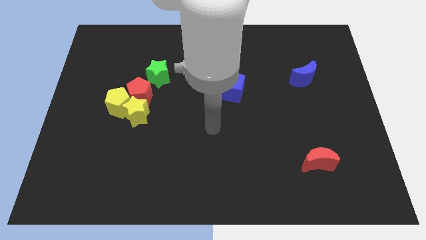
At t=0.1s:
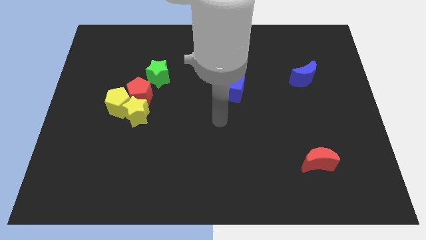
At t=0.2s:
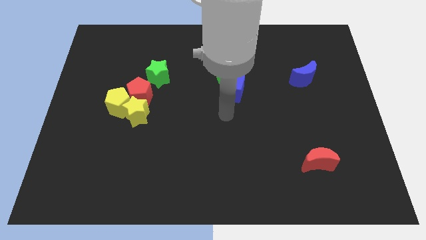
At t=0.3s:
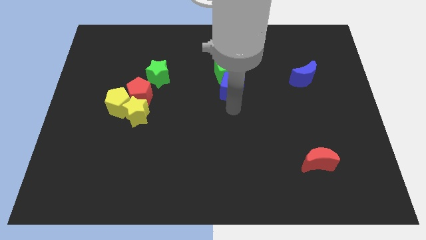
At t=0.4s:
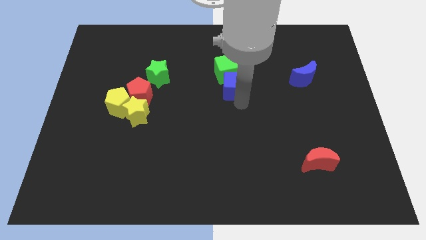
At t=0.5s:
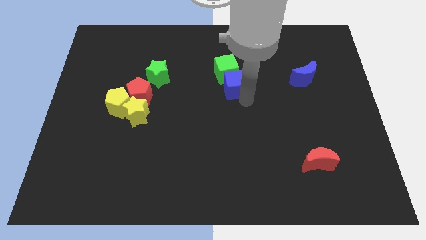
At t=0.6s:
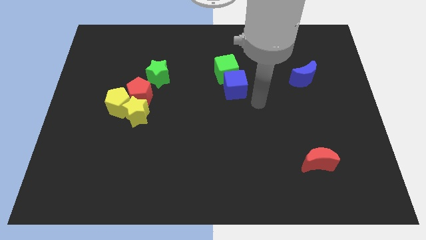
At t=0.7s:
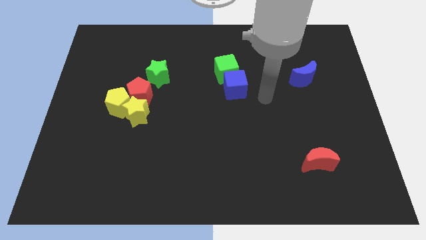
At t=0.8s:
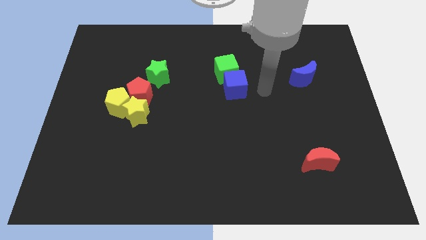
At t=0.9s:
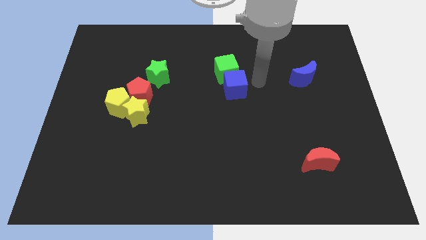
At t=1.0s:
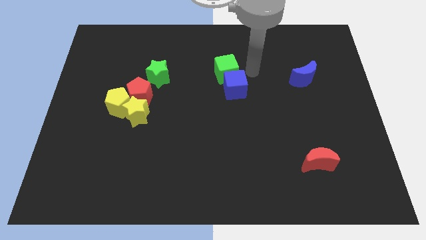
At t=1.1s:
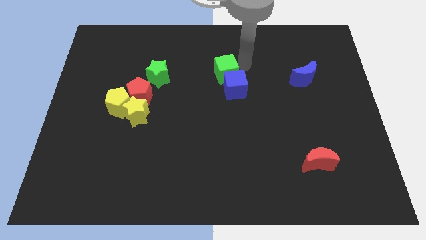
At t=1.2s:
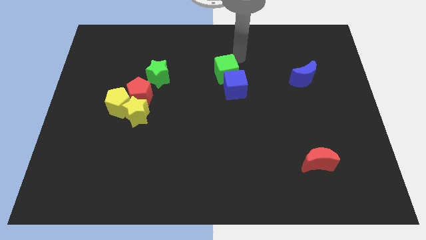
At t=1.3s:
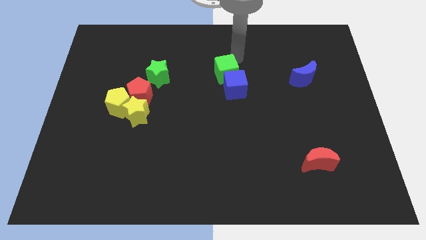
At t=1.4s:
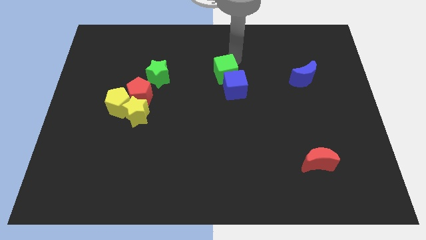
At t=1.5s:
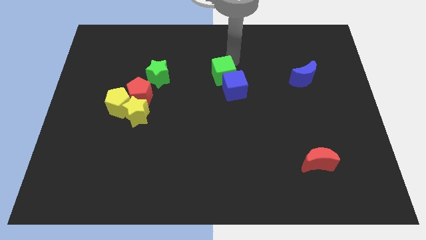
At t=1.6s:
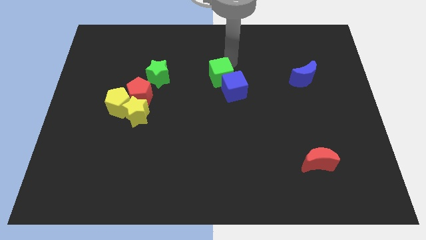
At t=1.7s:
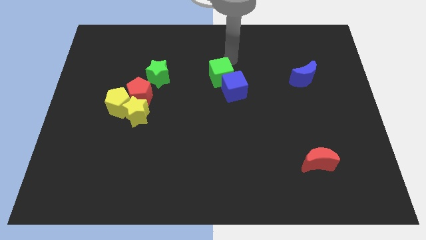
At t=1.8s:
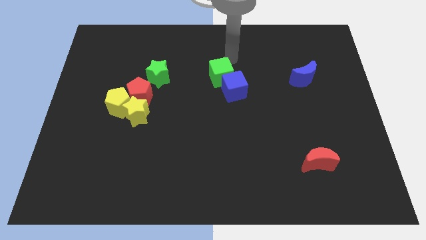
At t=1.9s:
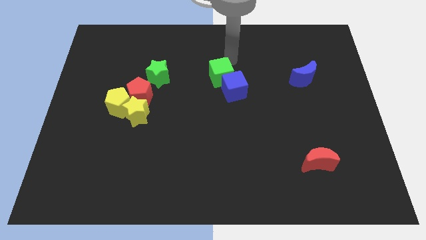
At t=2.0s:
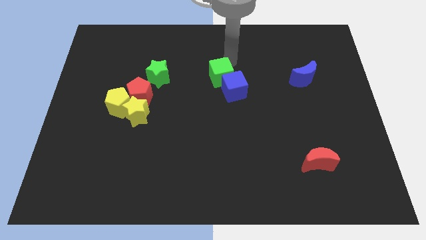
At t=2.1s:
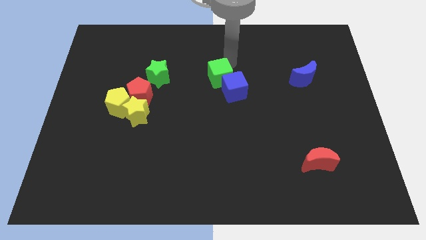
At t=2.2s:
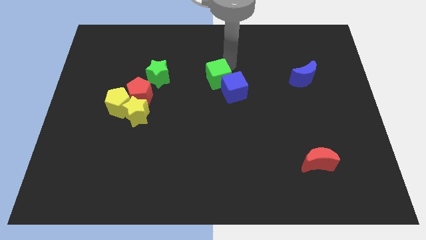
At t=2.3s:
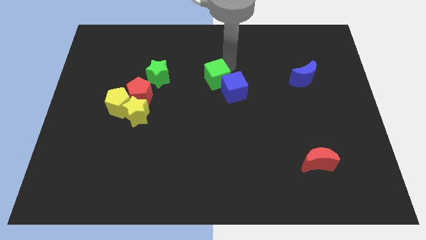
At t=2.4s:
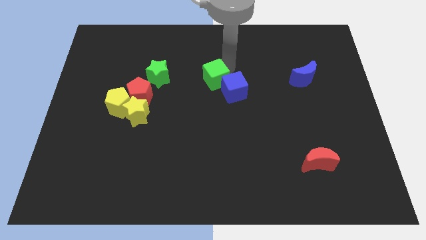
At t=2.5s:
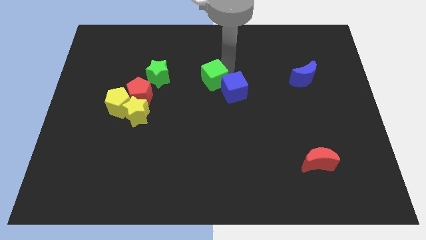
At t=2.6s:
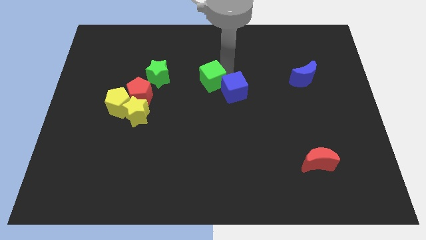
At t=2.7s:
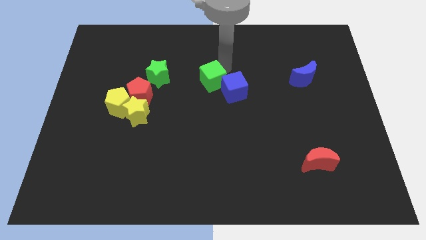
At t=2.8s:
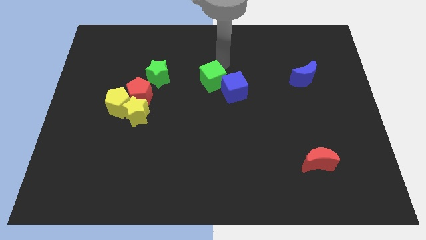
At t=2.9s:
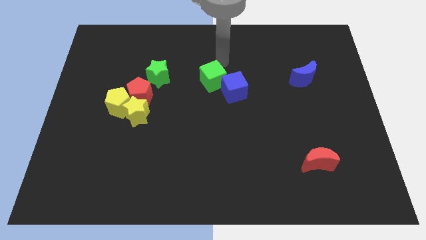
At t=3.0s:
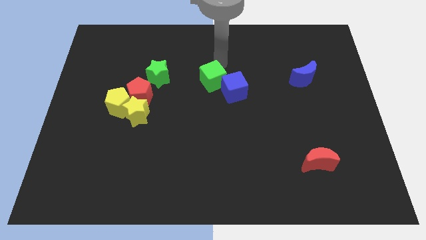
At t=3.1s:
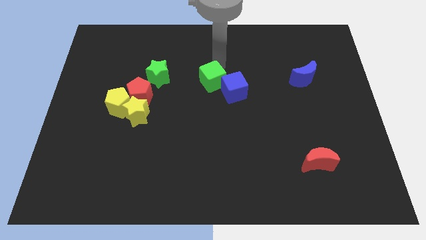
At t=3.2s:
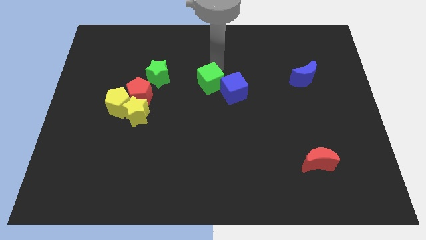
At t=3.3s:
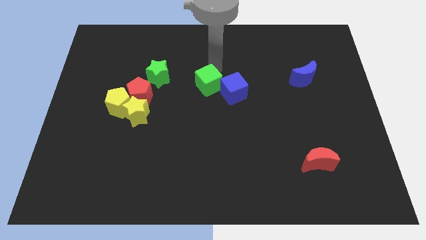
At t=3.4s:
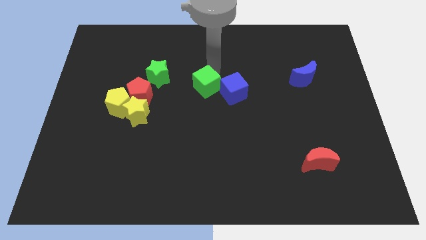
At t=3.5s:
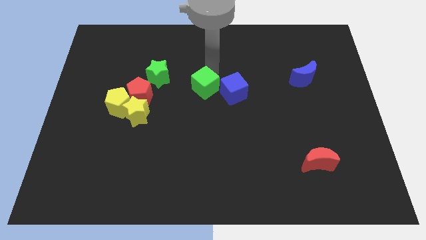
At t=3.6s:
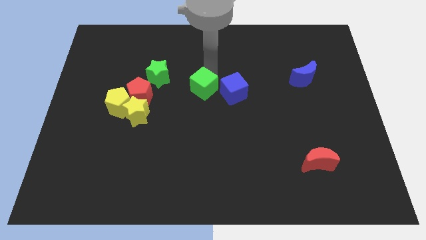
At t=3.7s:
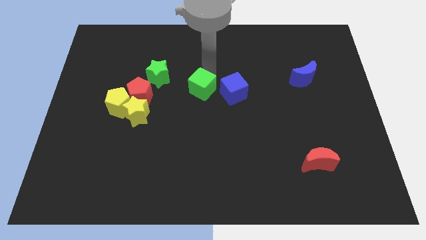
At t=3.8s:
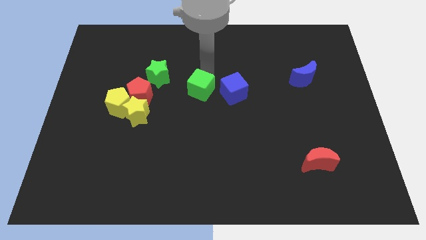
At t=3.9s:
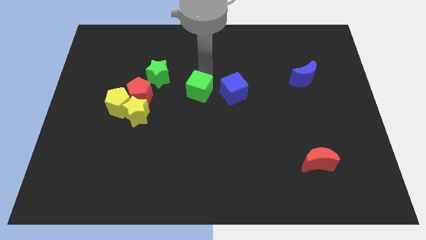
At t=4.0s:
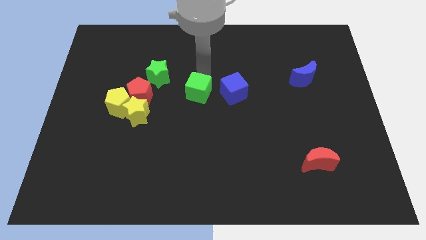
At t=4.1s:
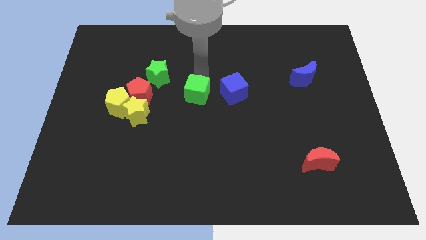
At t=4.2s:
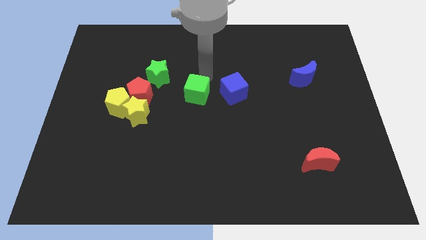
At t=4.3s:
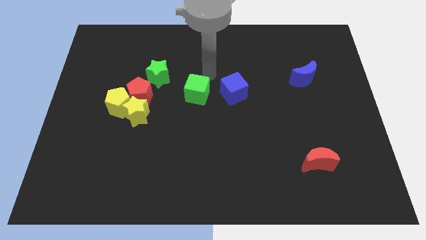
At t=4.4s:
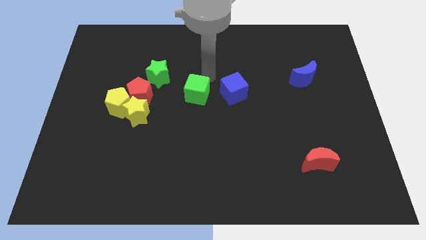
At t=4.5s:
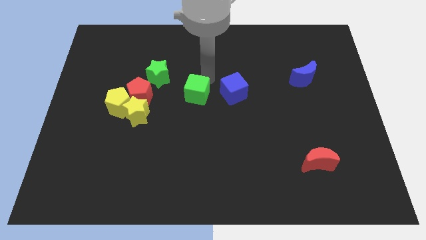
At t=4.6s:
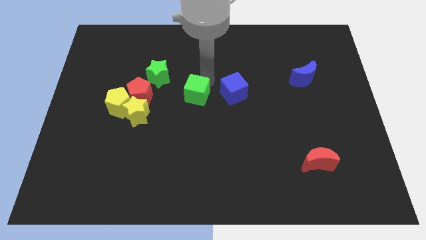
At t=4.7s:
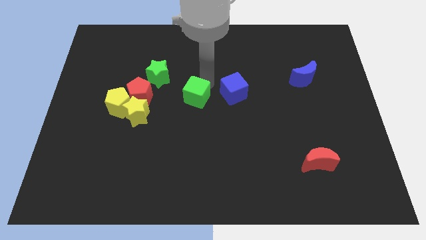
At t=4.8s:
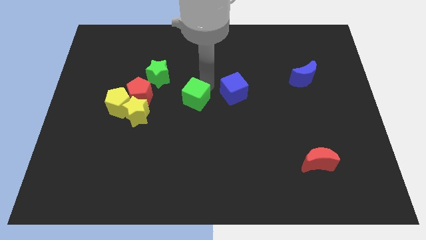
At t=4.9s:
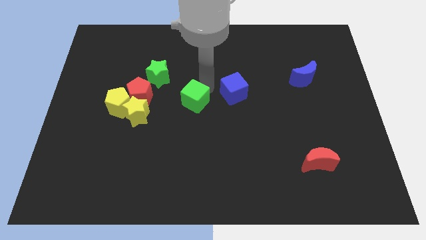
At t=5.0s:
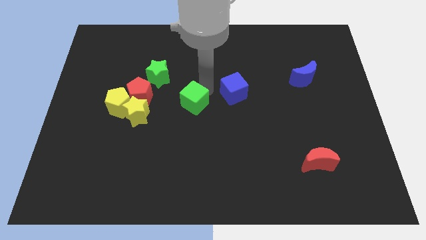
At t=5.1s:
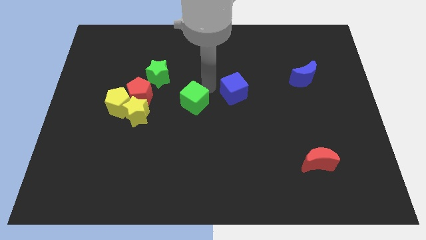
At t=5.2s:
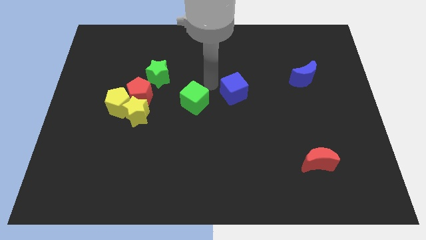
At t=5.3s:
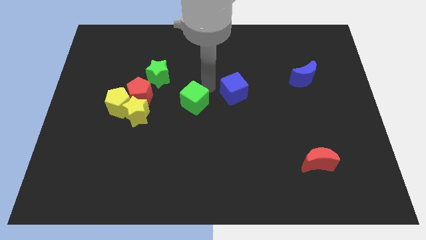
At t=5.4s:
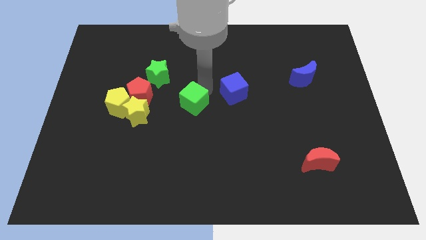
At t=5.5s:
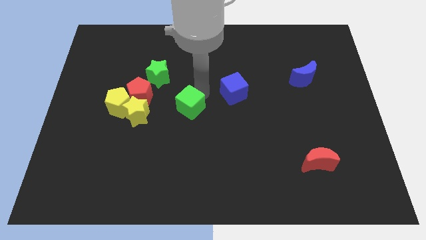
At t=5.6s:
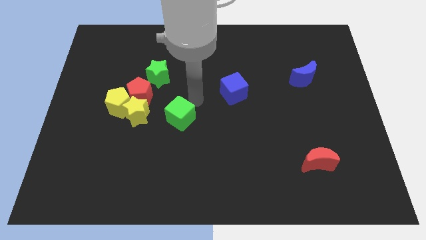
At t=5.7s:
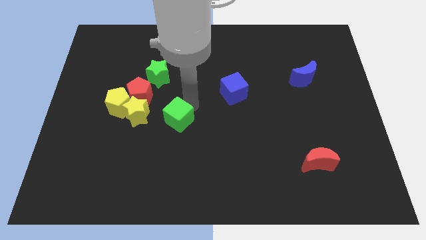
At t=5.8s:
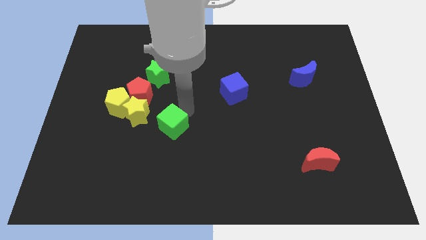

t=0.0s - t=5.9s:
slide the green cube to the bottom right side of the yellow star

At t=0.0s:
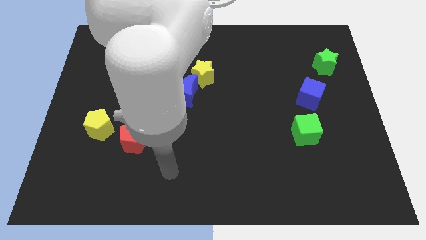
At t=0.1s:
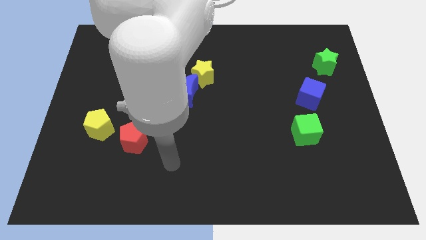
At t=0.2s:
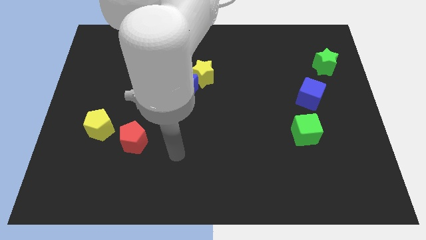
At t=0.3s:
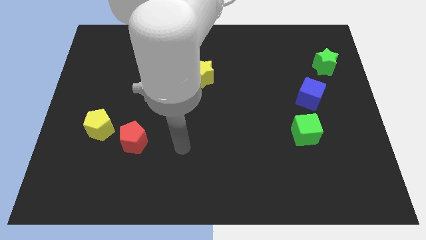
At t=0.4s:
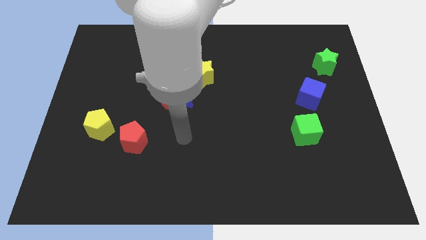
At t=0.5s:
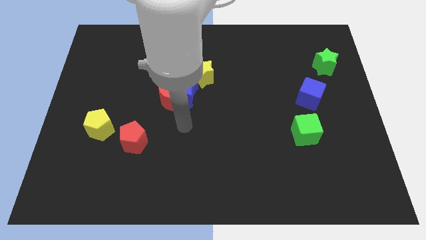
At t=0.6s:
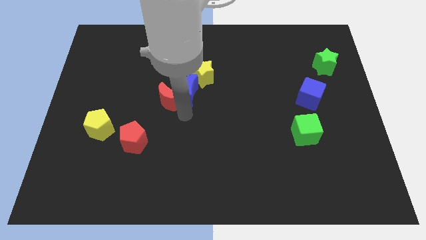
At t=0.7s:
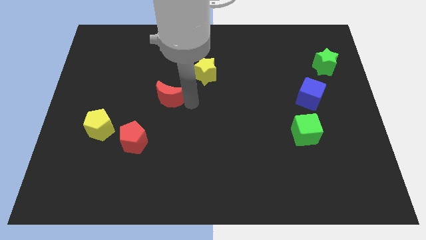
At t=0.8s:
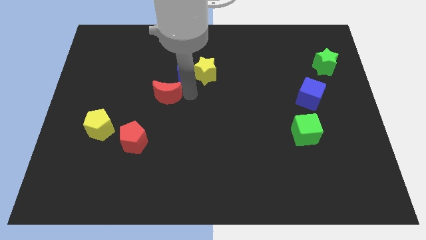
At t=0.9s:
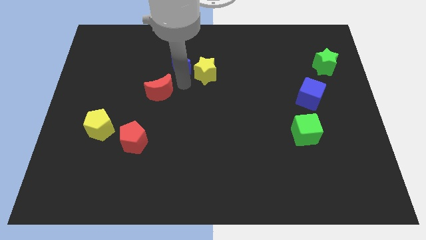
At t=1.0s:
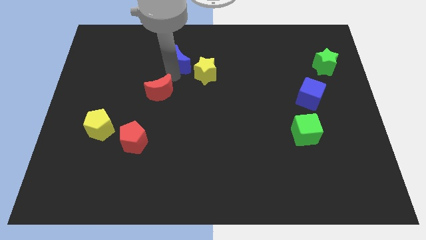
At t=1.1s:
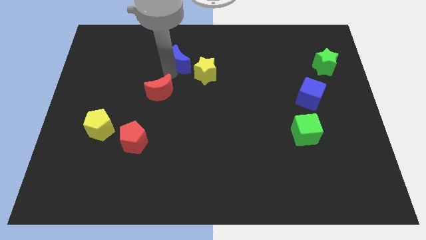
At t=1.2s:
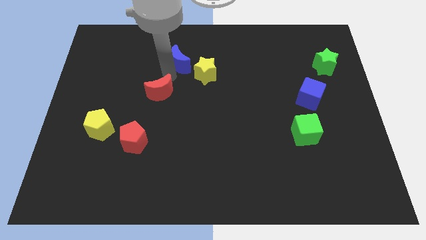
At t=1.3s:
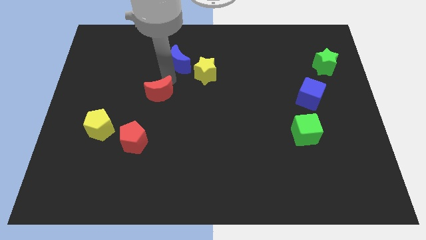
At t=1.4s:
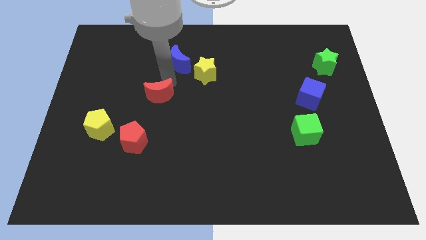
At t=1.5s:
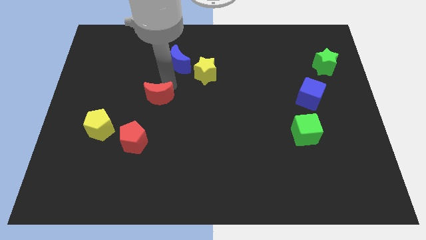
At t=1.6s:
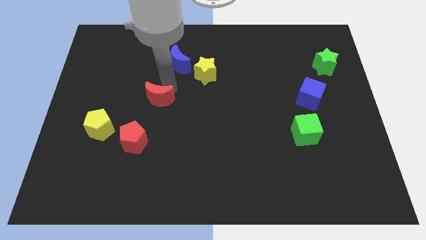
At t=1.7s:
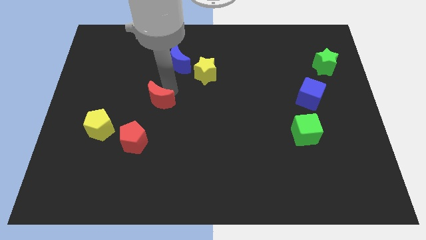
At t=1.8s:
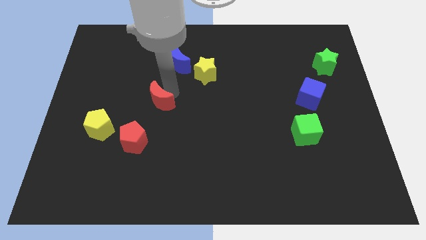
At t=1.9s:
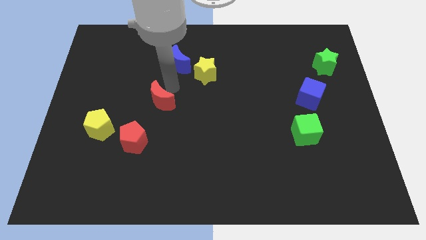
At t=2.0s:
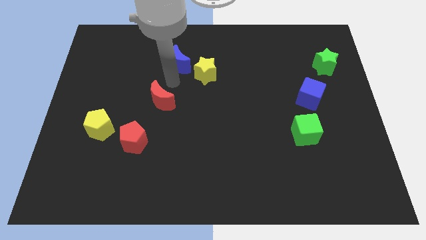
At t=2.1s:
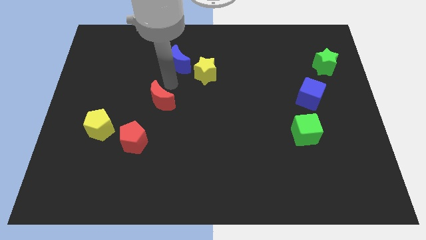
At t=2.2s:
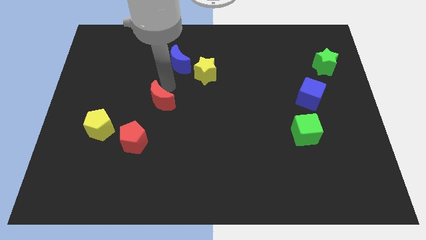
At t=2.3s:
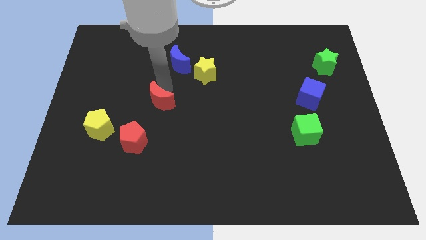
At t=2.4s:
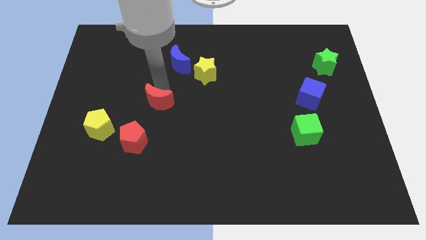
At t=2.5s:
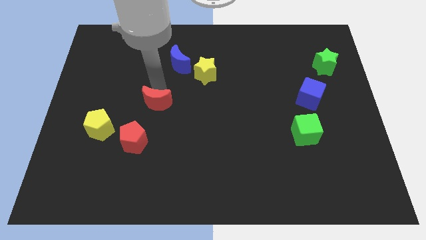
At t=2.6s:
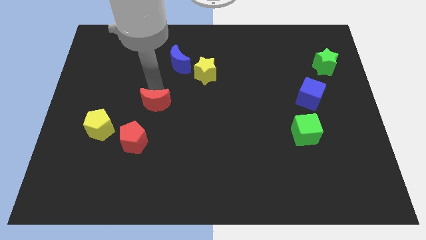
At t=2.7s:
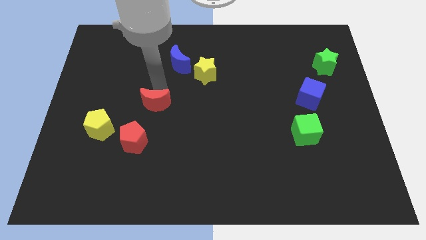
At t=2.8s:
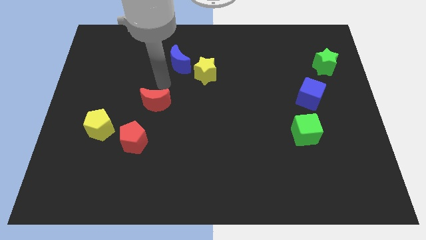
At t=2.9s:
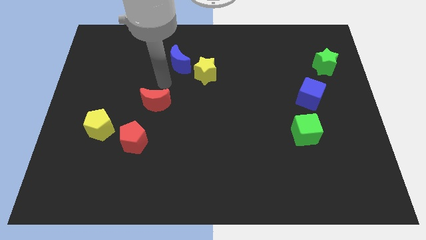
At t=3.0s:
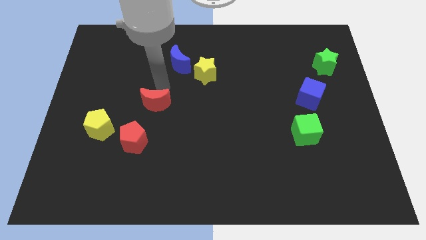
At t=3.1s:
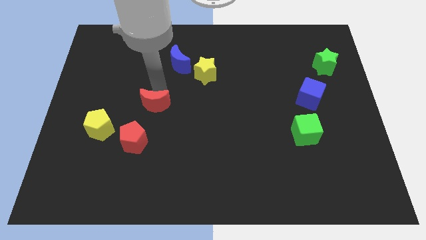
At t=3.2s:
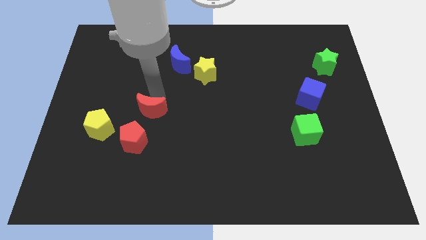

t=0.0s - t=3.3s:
push the red moon to the right side of the yellow pentagon
